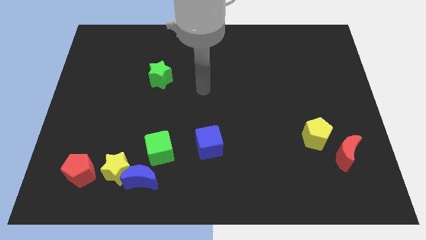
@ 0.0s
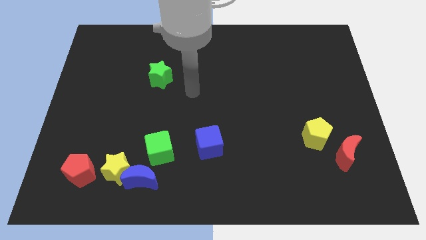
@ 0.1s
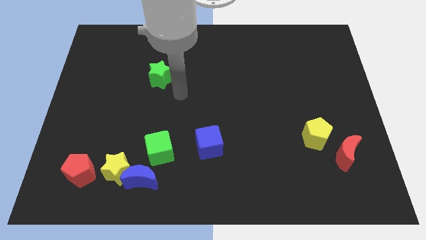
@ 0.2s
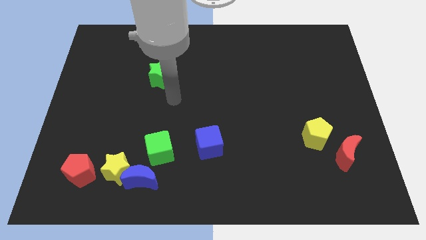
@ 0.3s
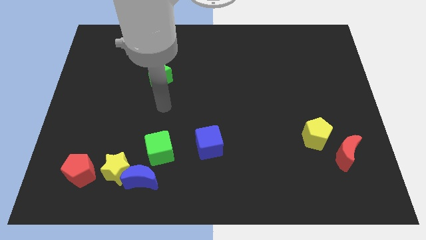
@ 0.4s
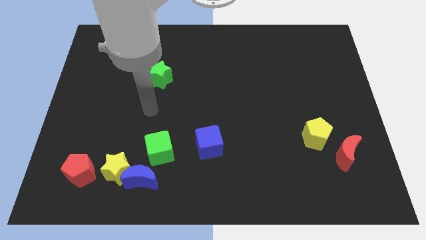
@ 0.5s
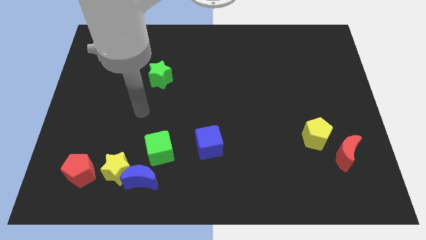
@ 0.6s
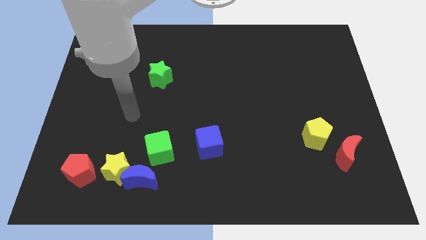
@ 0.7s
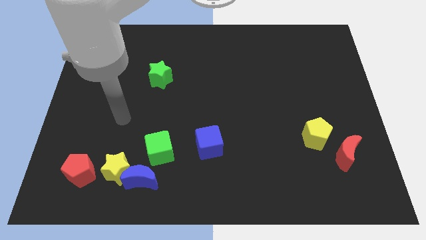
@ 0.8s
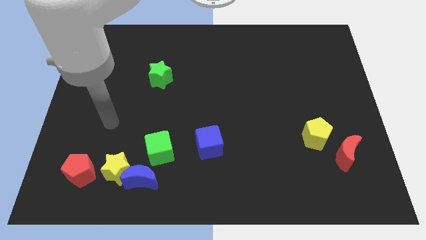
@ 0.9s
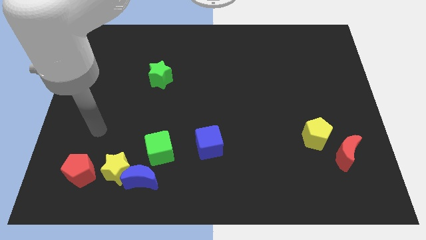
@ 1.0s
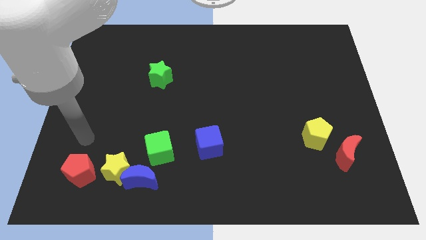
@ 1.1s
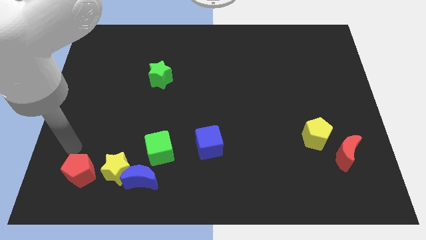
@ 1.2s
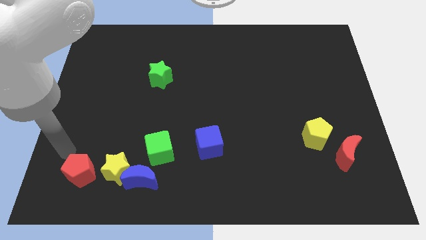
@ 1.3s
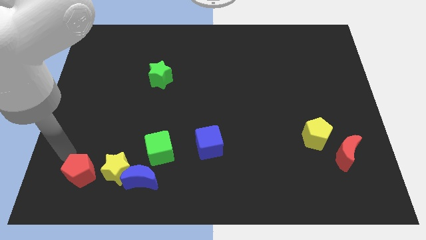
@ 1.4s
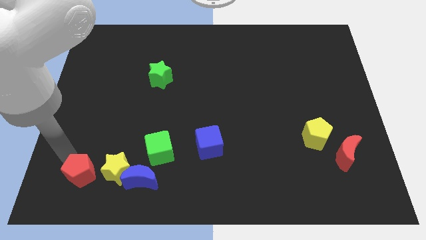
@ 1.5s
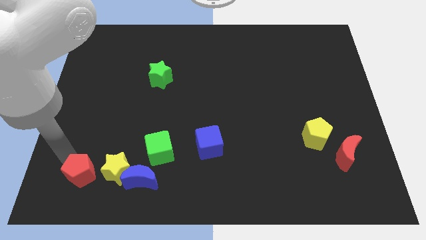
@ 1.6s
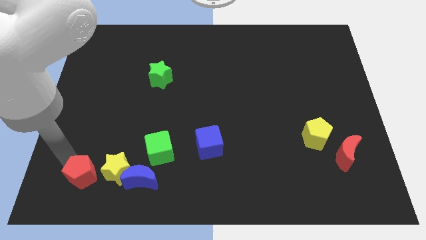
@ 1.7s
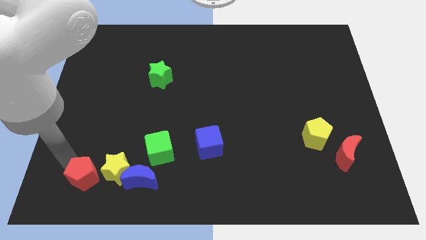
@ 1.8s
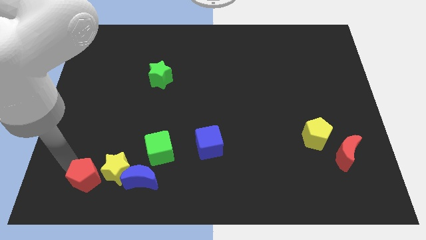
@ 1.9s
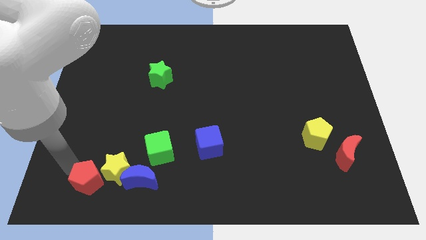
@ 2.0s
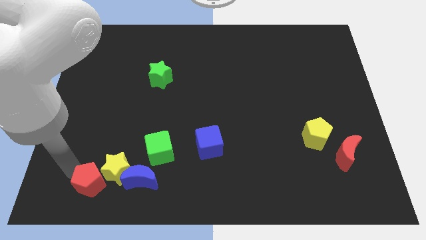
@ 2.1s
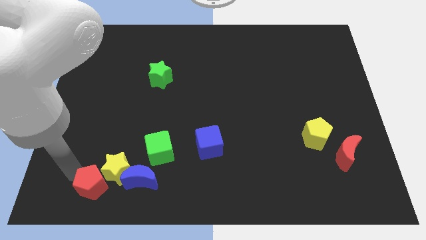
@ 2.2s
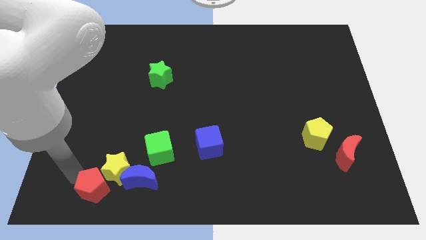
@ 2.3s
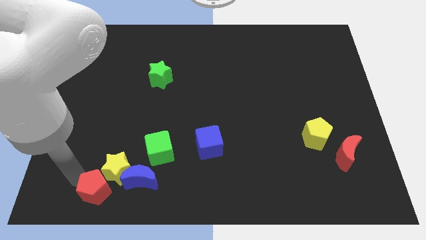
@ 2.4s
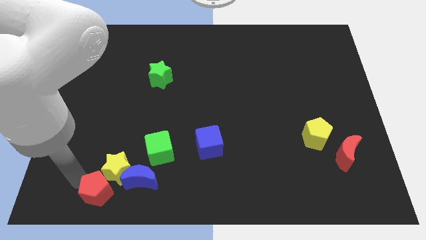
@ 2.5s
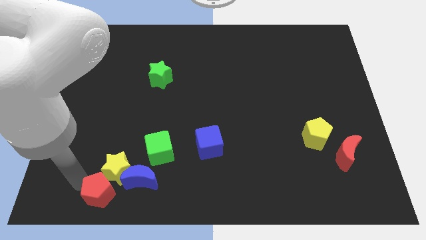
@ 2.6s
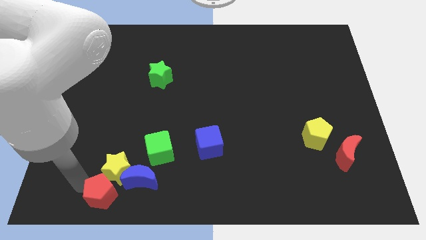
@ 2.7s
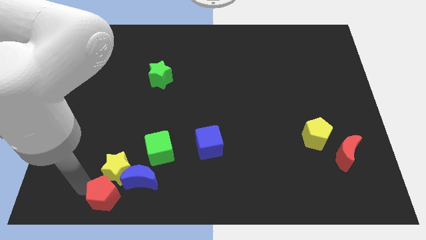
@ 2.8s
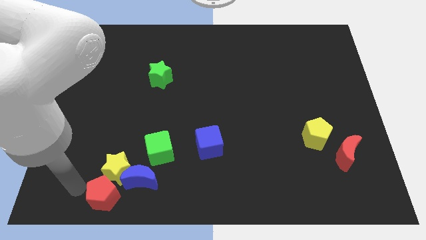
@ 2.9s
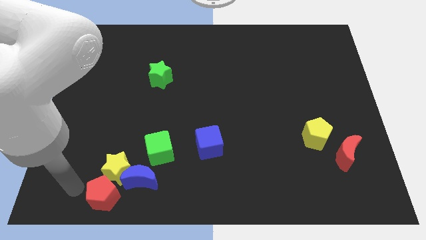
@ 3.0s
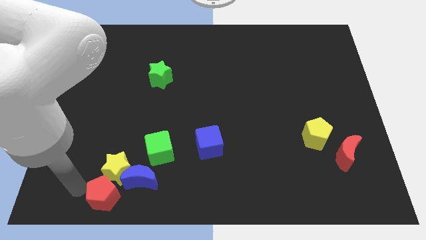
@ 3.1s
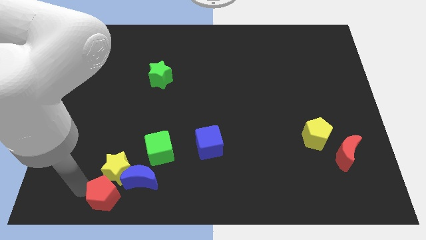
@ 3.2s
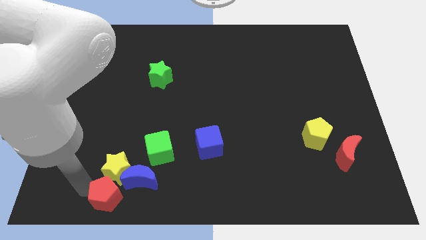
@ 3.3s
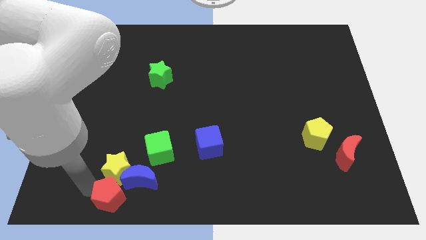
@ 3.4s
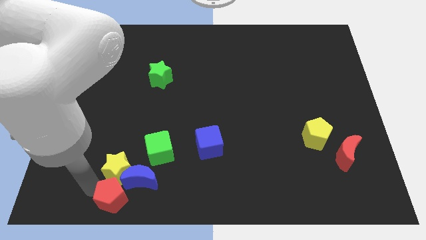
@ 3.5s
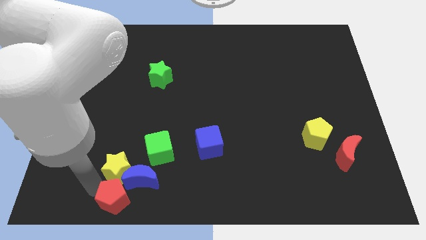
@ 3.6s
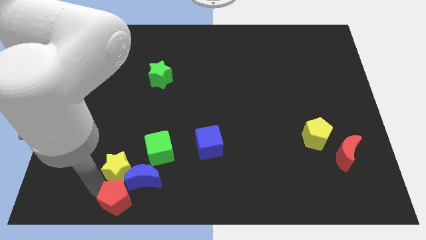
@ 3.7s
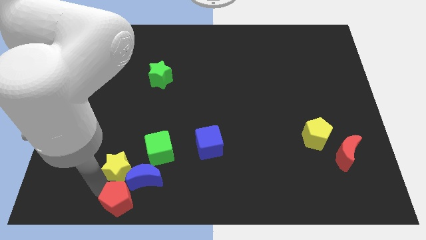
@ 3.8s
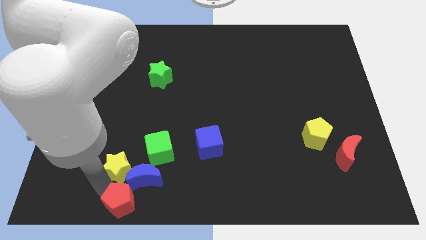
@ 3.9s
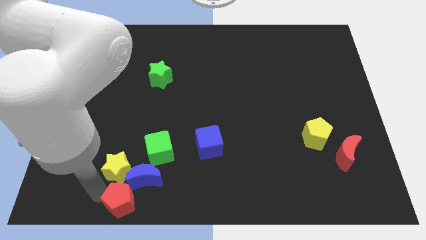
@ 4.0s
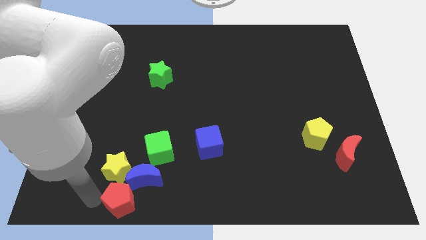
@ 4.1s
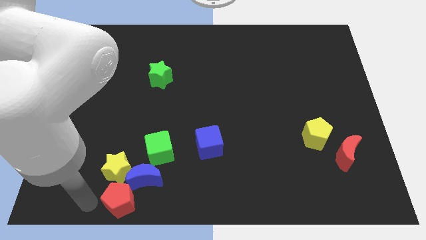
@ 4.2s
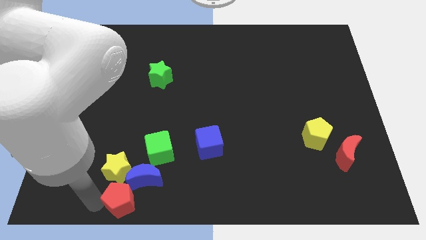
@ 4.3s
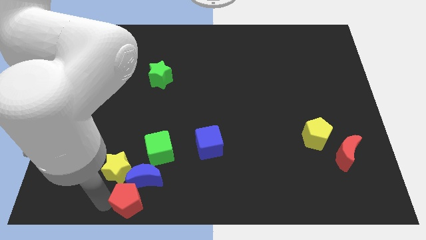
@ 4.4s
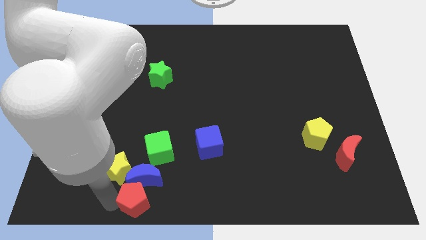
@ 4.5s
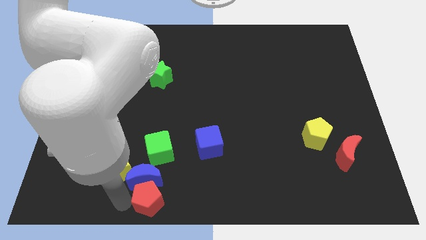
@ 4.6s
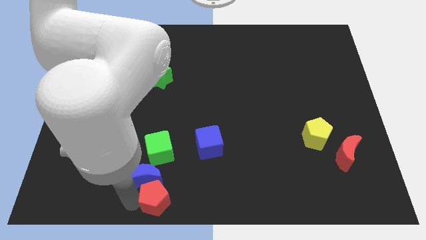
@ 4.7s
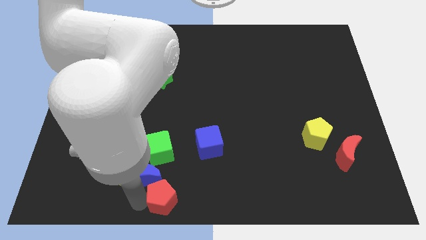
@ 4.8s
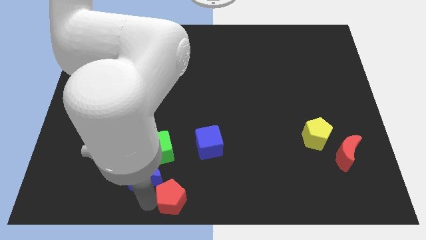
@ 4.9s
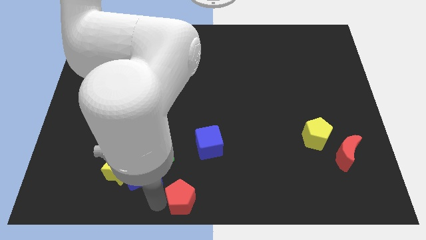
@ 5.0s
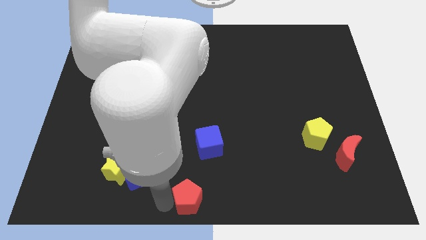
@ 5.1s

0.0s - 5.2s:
slide the red pentagon to the right

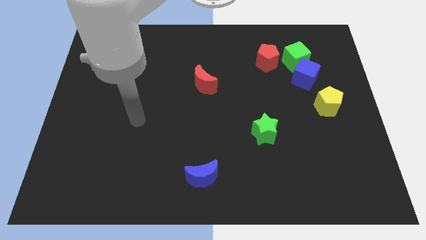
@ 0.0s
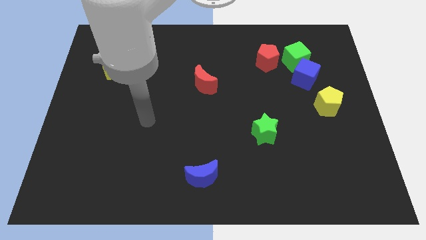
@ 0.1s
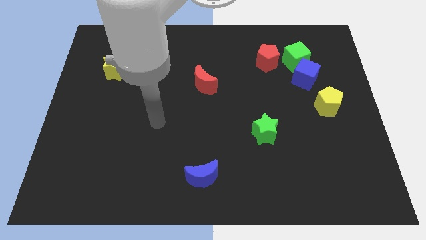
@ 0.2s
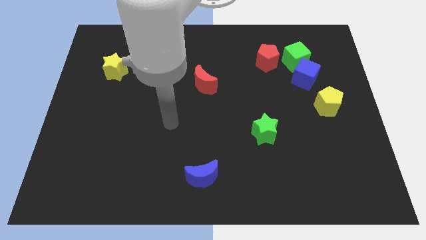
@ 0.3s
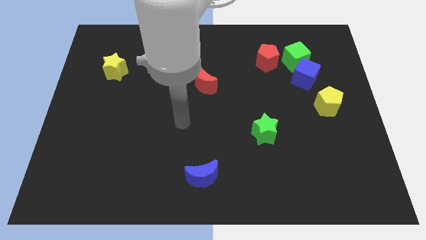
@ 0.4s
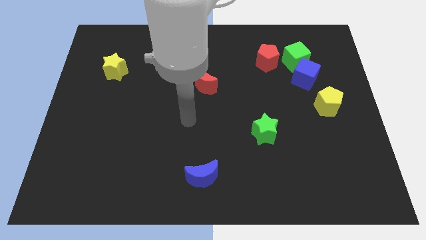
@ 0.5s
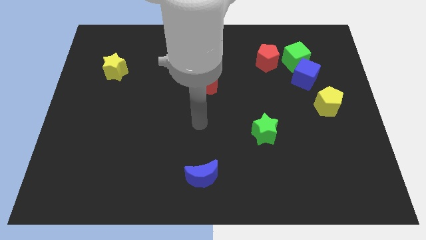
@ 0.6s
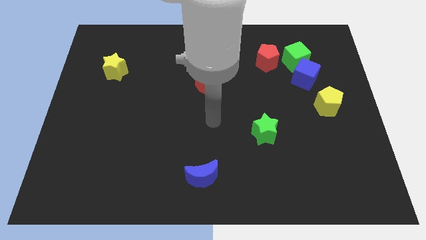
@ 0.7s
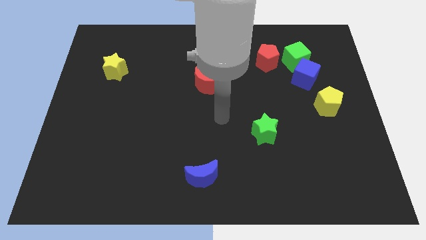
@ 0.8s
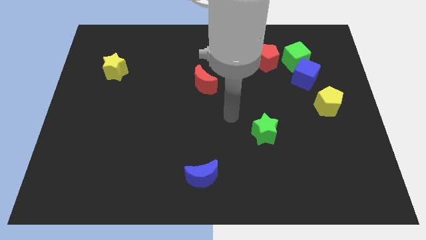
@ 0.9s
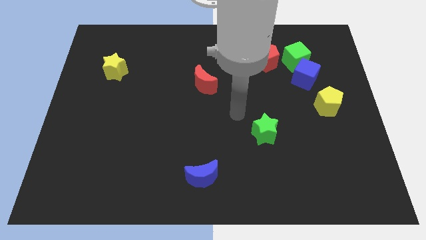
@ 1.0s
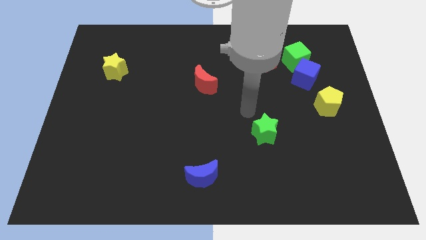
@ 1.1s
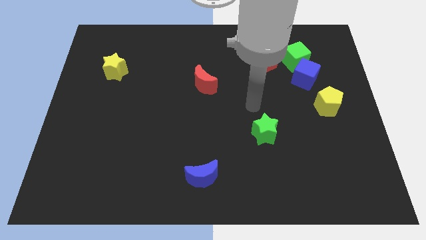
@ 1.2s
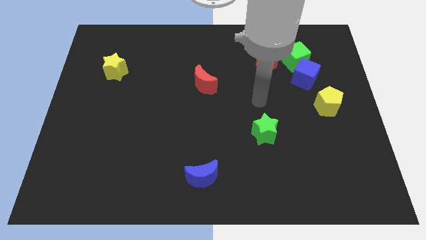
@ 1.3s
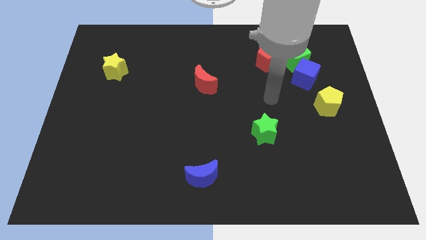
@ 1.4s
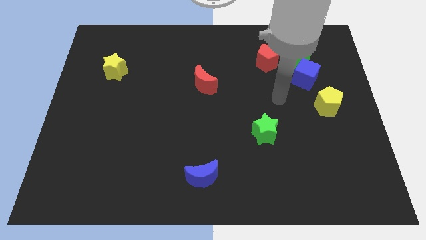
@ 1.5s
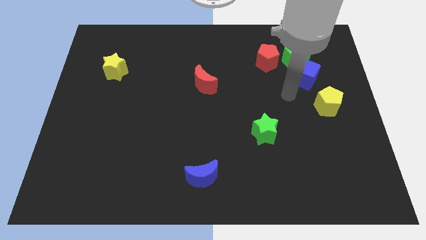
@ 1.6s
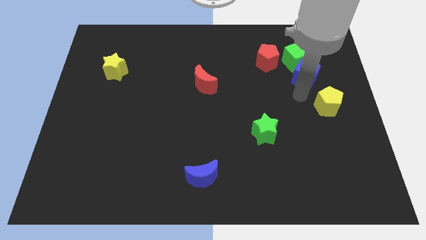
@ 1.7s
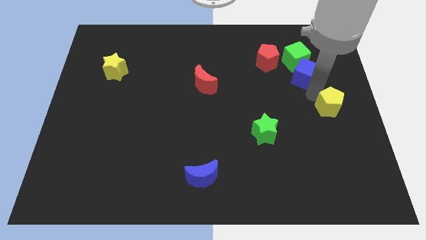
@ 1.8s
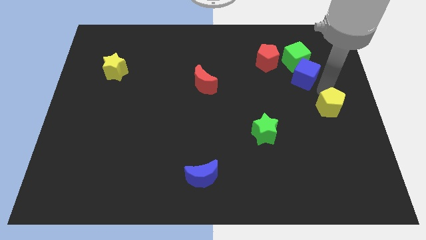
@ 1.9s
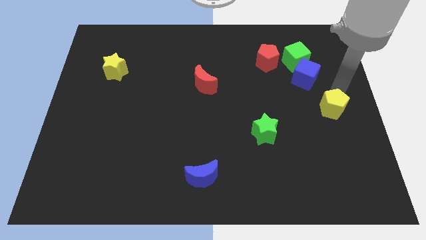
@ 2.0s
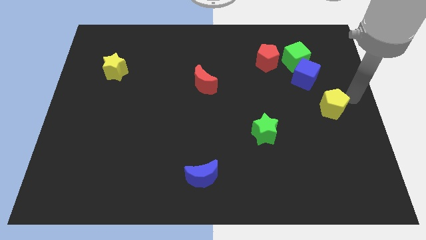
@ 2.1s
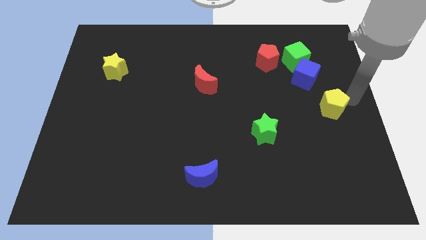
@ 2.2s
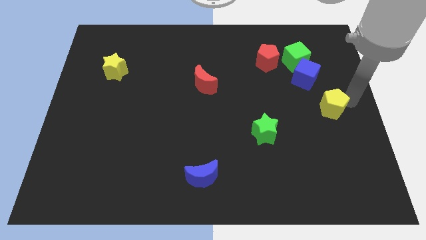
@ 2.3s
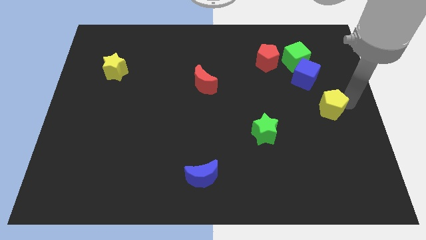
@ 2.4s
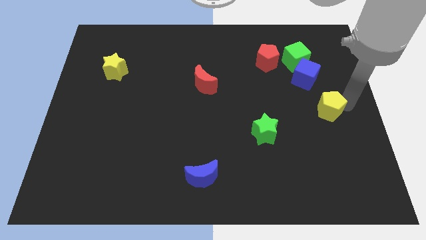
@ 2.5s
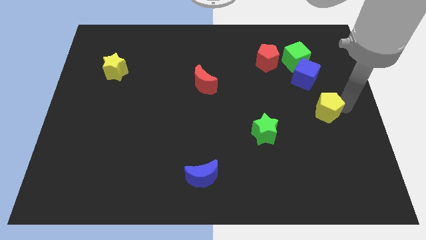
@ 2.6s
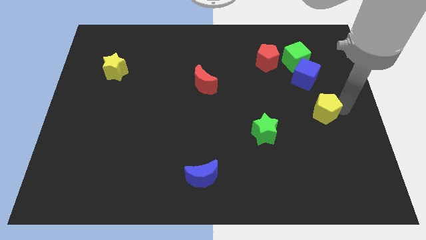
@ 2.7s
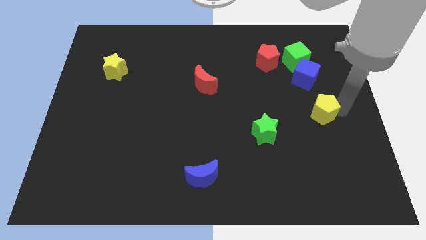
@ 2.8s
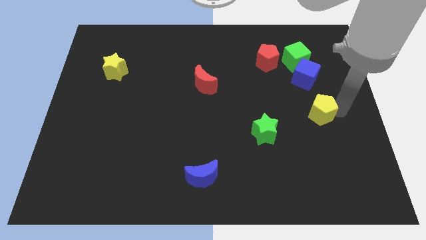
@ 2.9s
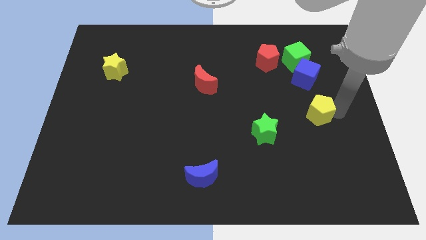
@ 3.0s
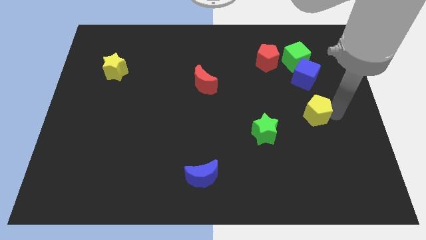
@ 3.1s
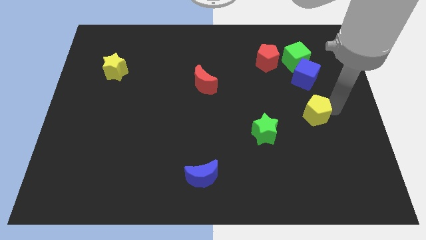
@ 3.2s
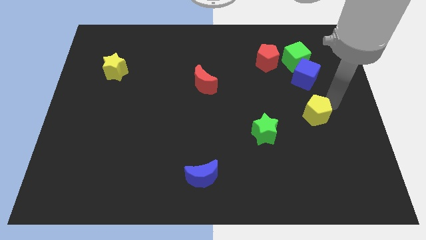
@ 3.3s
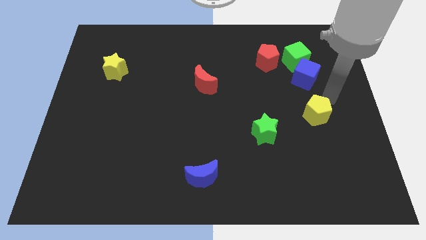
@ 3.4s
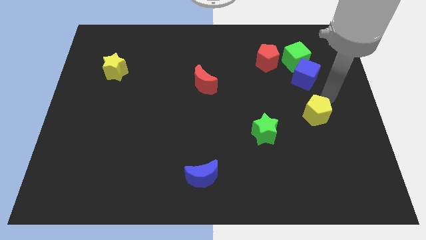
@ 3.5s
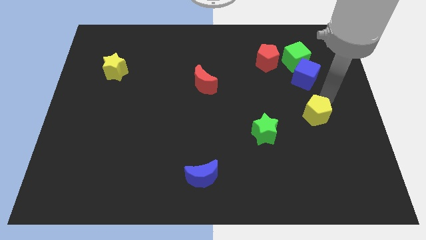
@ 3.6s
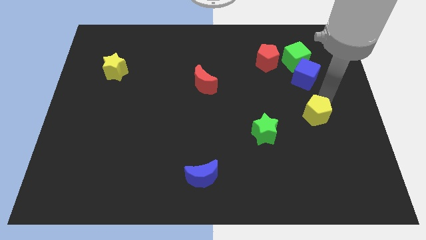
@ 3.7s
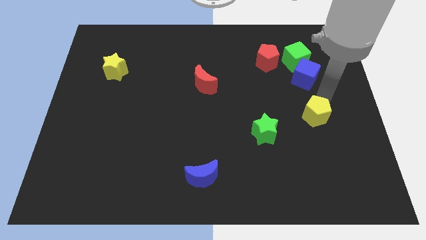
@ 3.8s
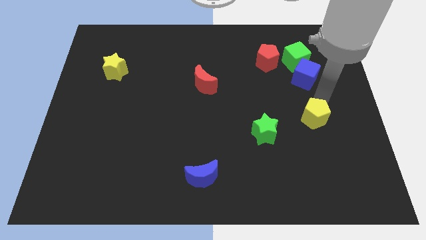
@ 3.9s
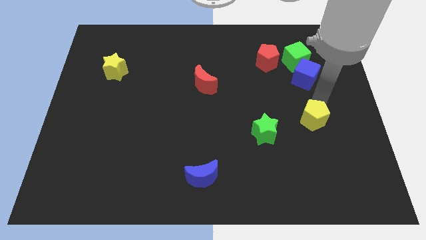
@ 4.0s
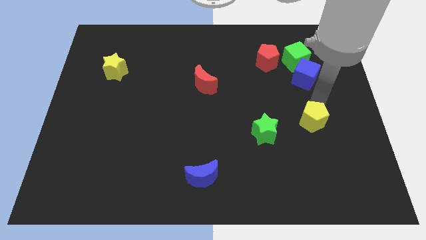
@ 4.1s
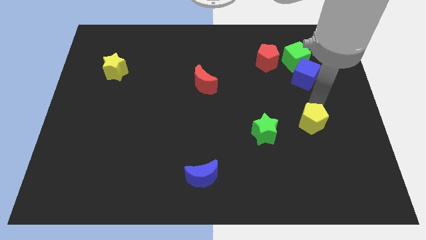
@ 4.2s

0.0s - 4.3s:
slide the yellow pentagon down and to the left slightly
